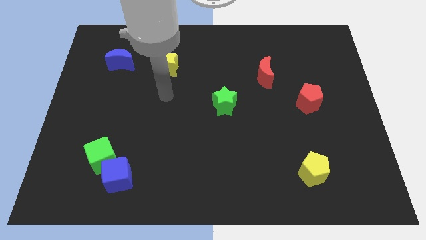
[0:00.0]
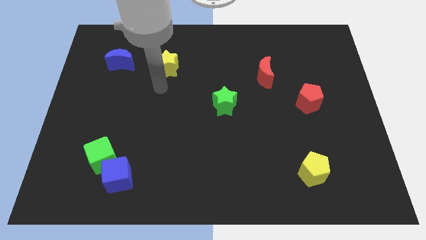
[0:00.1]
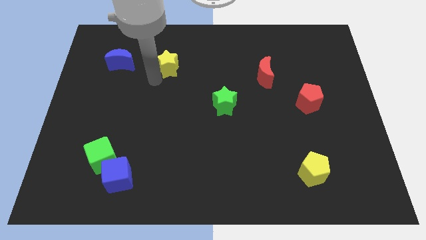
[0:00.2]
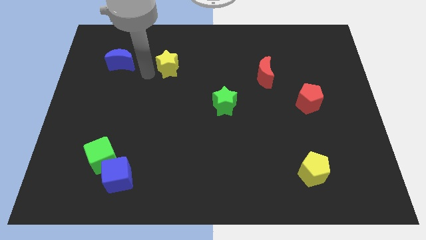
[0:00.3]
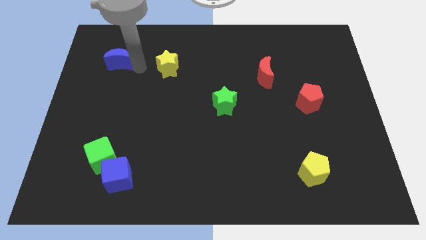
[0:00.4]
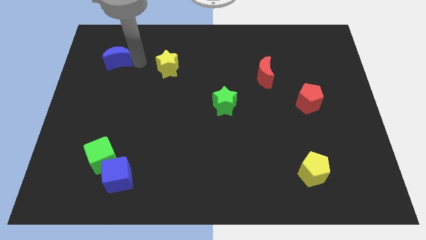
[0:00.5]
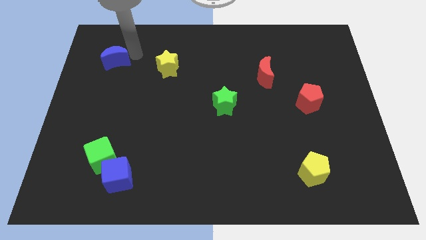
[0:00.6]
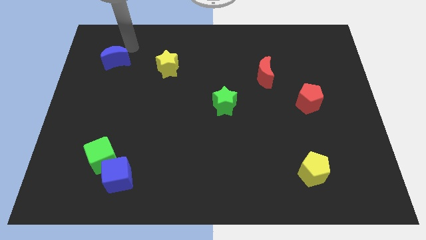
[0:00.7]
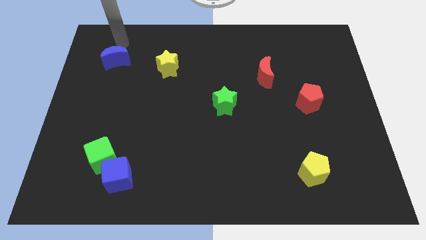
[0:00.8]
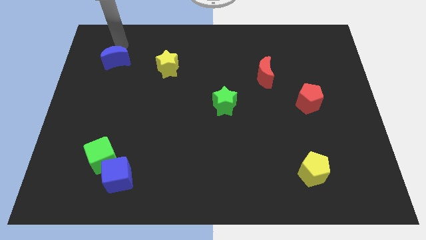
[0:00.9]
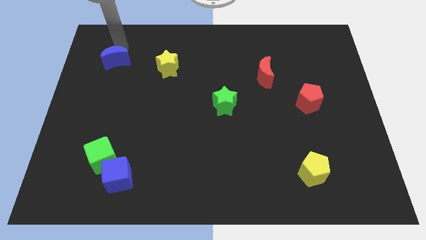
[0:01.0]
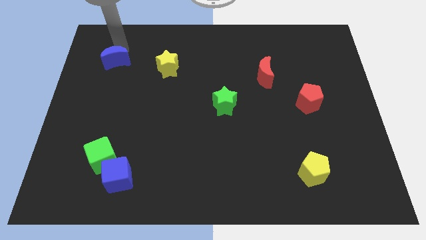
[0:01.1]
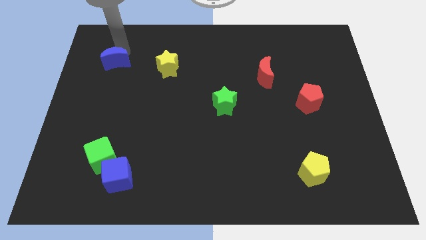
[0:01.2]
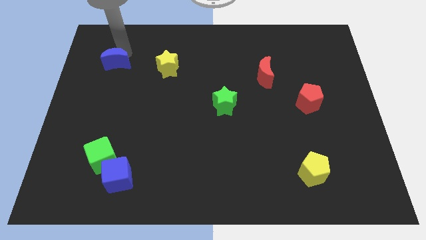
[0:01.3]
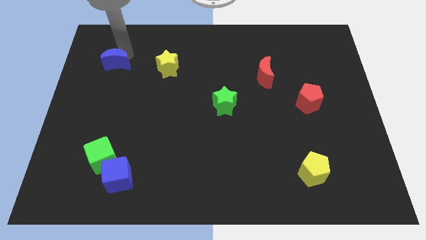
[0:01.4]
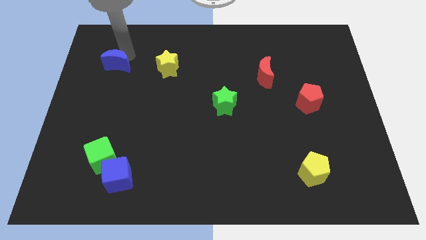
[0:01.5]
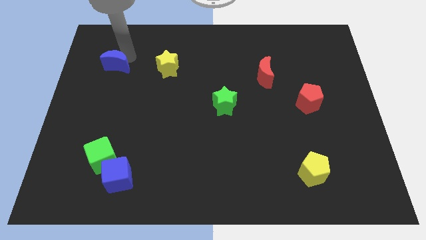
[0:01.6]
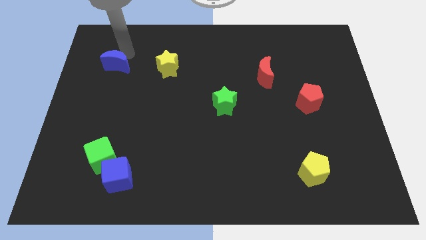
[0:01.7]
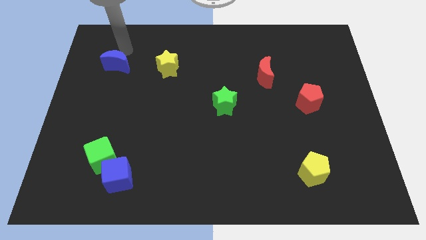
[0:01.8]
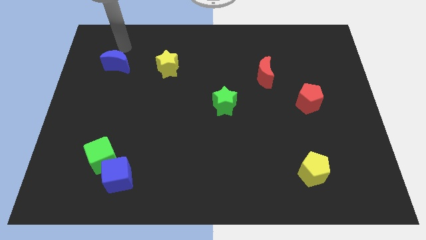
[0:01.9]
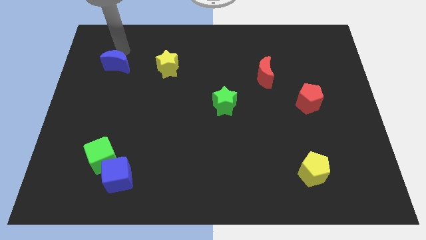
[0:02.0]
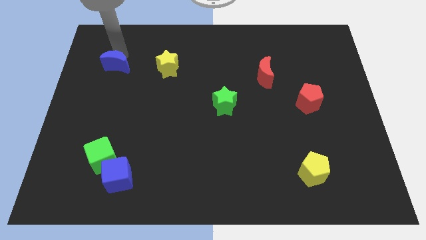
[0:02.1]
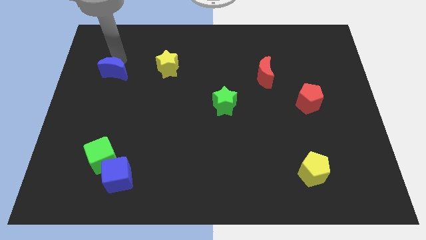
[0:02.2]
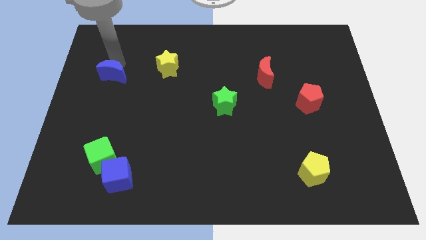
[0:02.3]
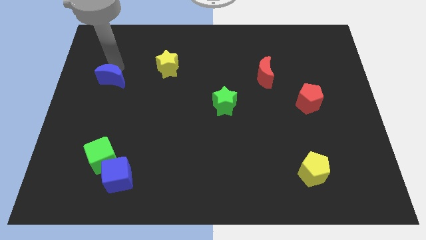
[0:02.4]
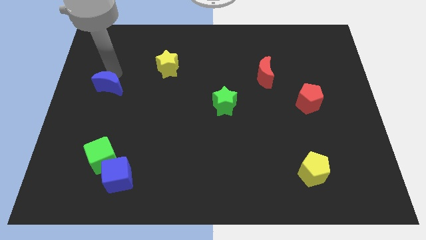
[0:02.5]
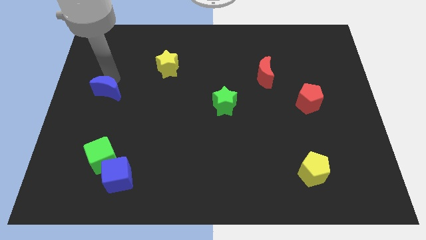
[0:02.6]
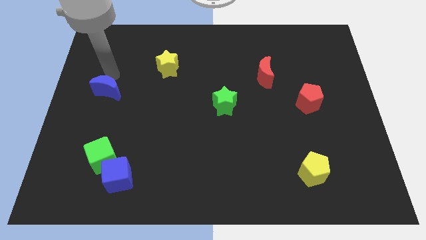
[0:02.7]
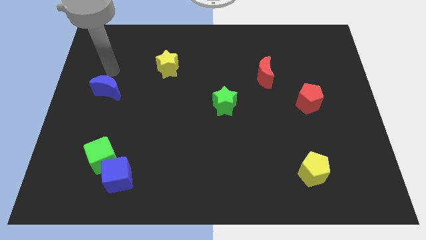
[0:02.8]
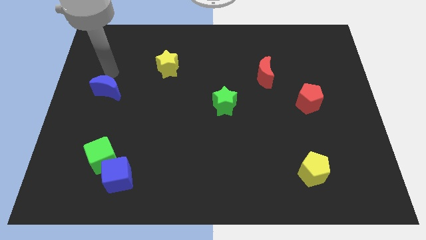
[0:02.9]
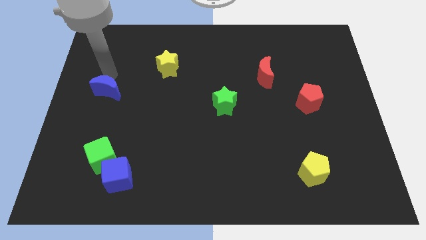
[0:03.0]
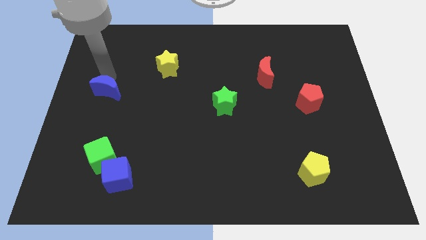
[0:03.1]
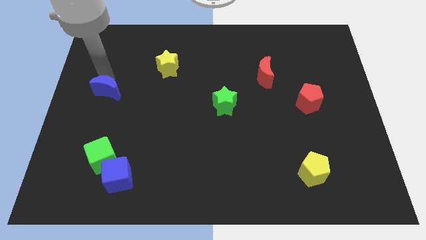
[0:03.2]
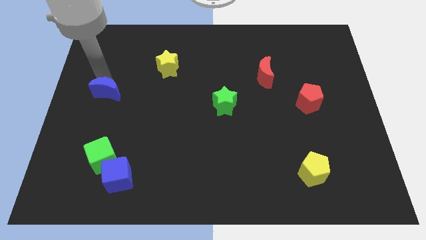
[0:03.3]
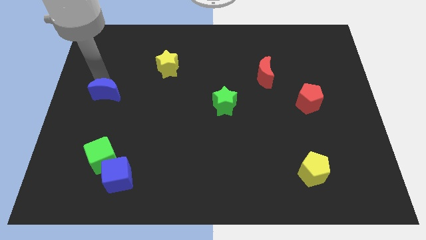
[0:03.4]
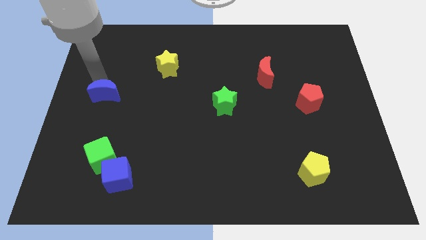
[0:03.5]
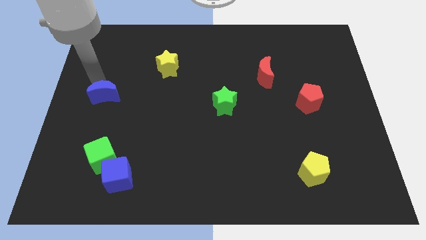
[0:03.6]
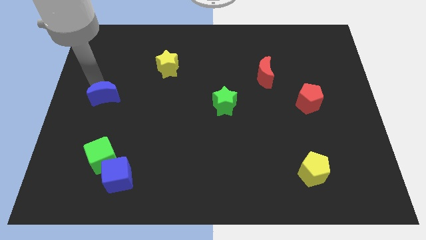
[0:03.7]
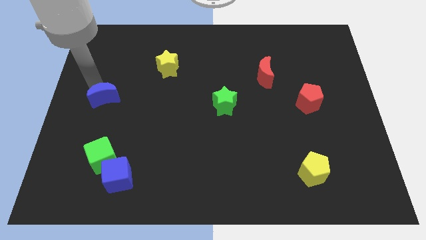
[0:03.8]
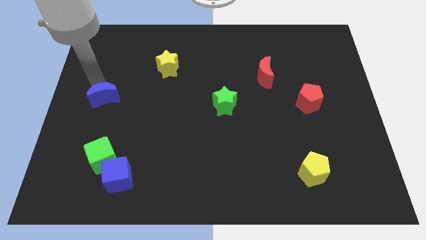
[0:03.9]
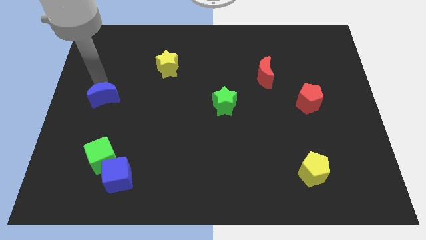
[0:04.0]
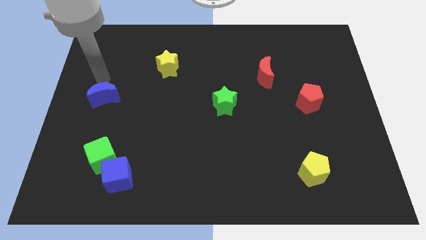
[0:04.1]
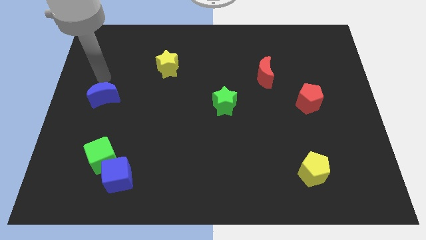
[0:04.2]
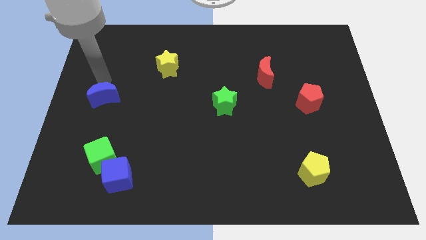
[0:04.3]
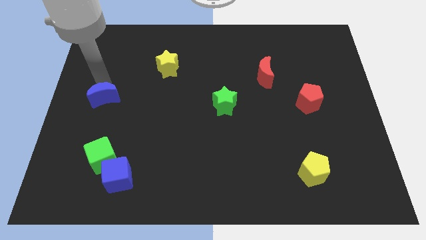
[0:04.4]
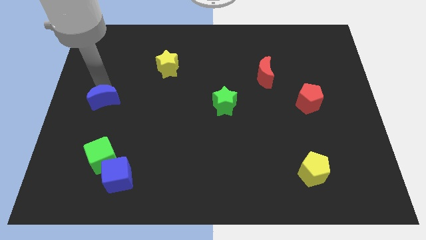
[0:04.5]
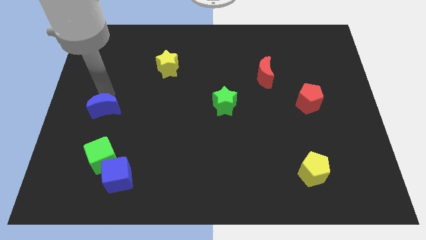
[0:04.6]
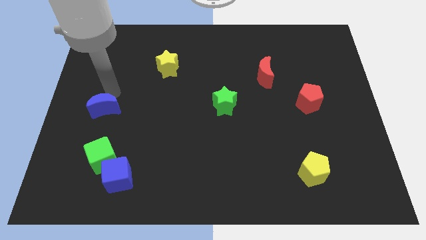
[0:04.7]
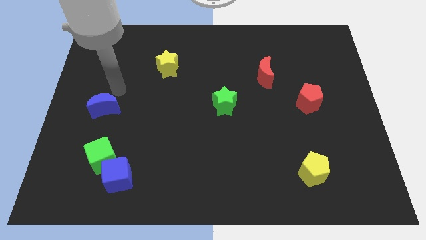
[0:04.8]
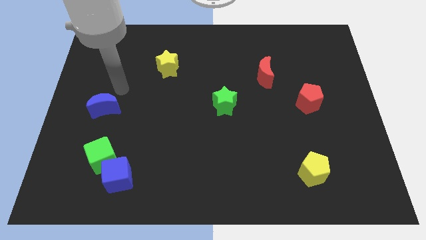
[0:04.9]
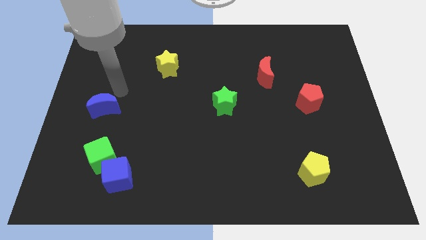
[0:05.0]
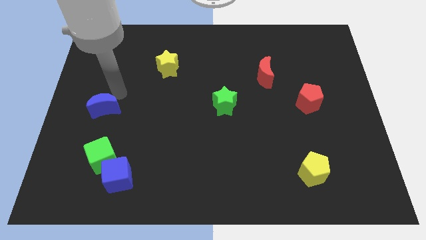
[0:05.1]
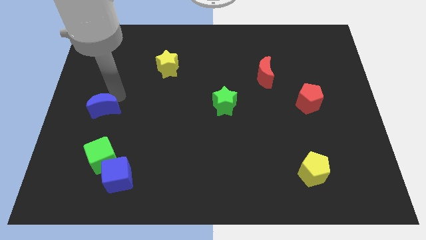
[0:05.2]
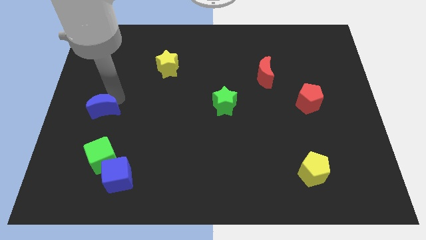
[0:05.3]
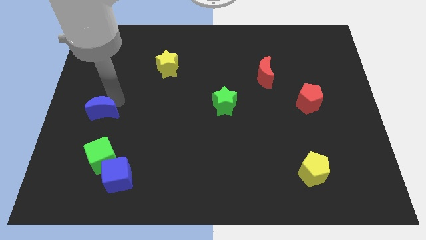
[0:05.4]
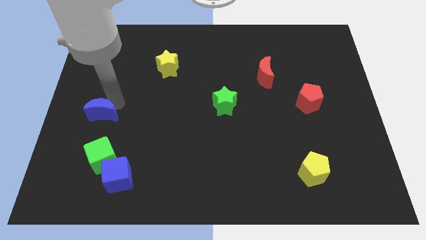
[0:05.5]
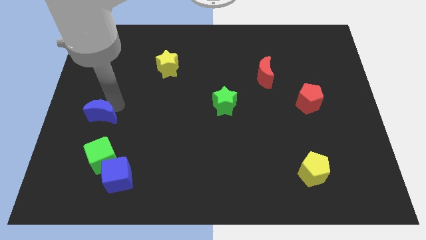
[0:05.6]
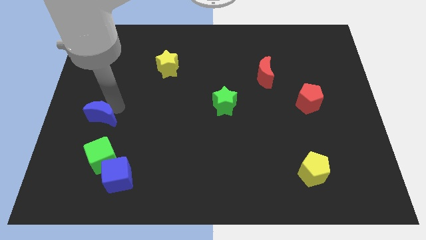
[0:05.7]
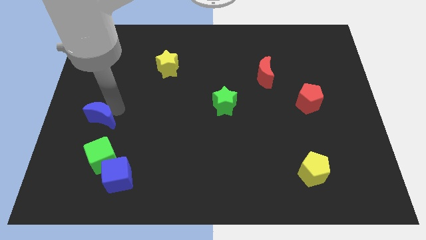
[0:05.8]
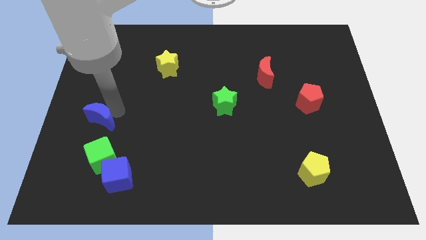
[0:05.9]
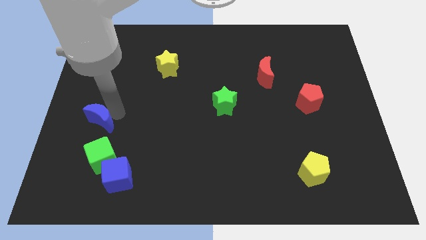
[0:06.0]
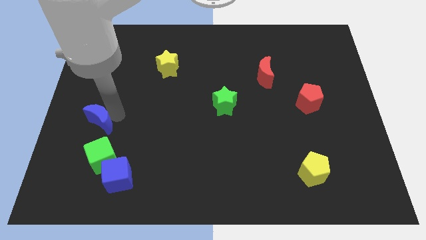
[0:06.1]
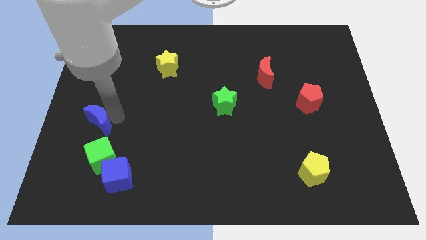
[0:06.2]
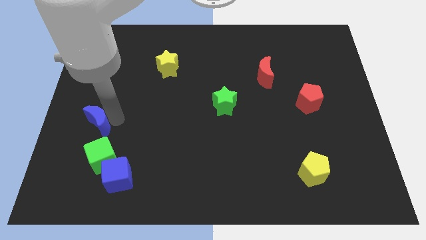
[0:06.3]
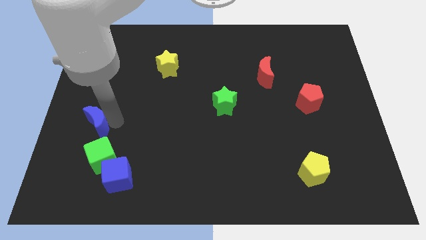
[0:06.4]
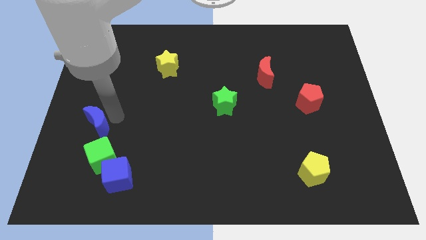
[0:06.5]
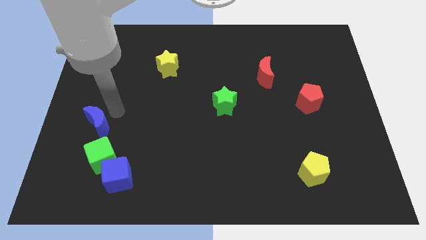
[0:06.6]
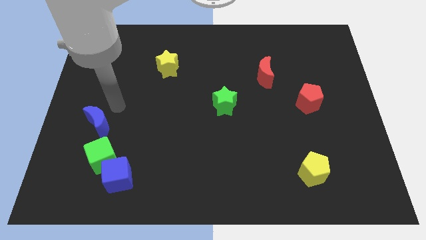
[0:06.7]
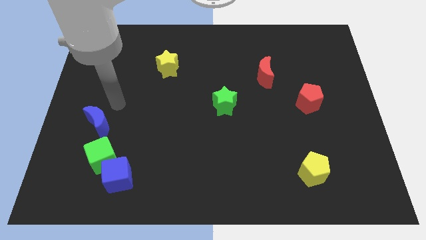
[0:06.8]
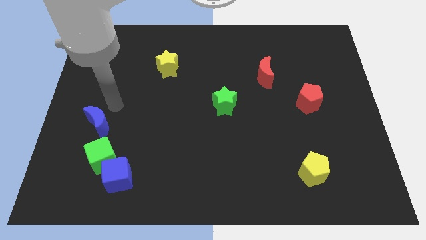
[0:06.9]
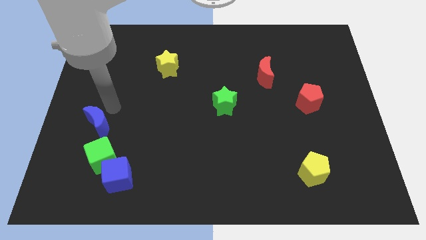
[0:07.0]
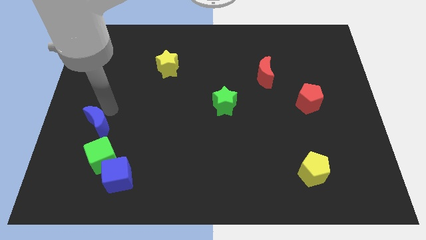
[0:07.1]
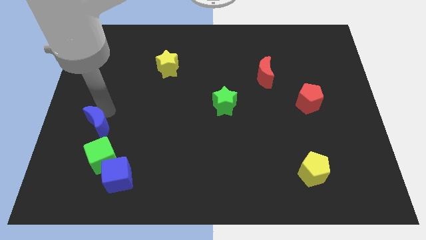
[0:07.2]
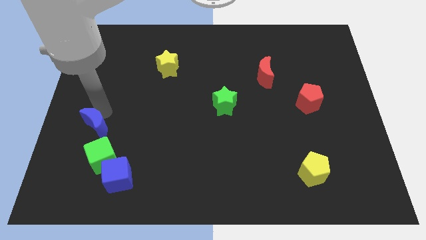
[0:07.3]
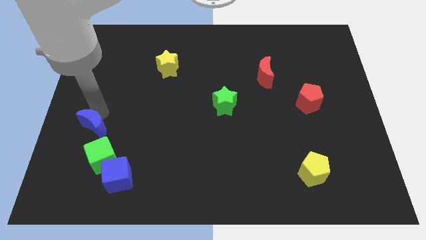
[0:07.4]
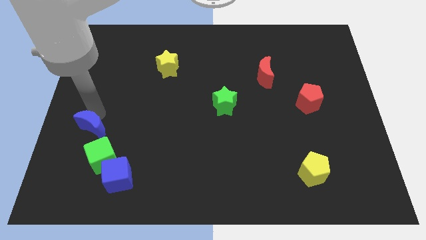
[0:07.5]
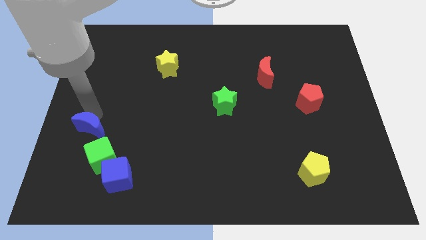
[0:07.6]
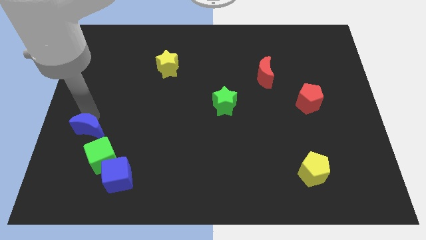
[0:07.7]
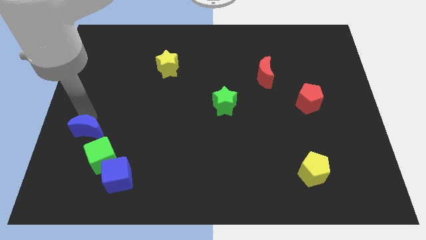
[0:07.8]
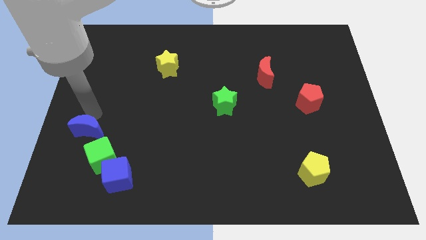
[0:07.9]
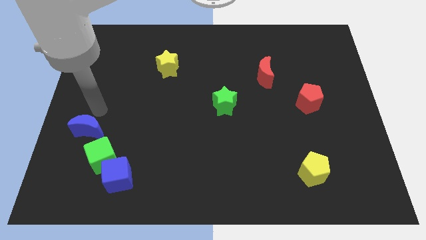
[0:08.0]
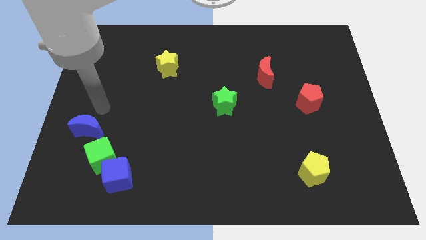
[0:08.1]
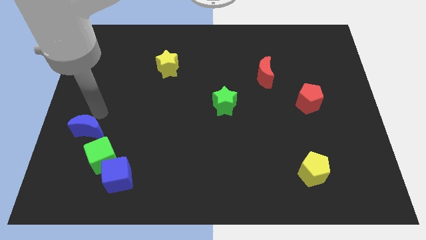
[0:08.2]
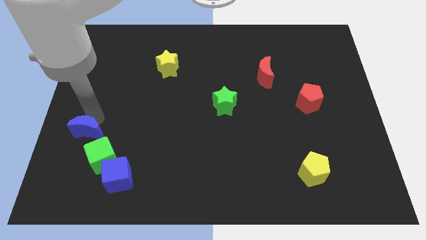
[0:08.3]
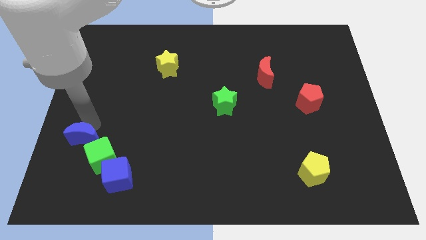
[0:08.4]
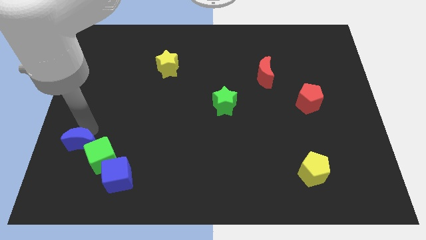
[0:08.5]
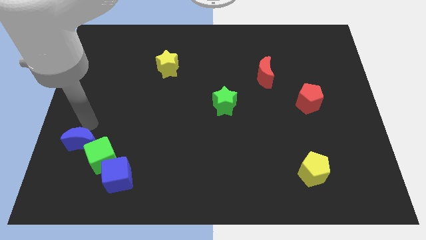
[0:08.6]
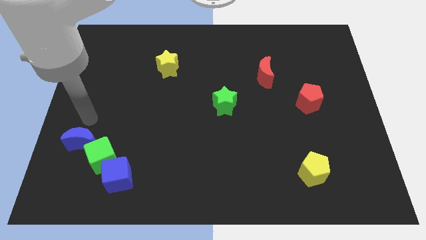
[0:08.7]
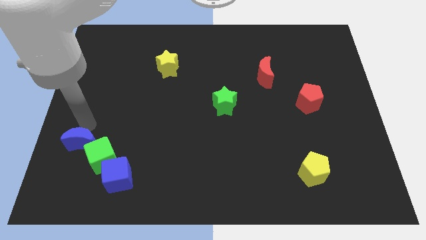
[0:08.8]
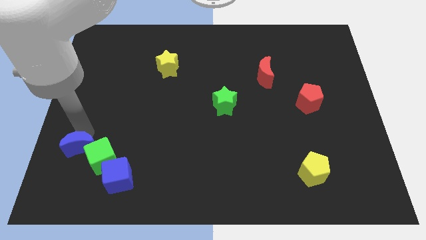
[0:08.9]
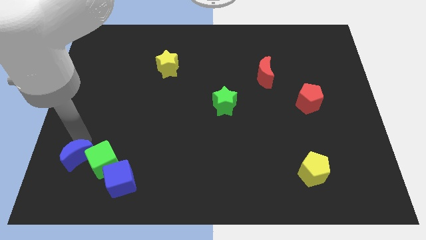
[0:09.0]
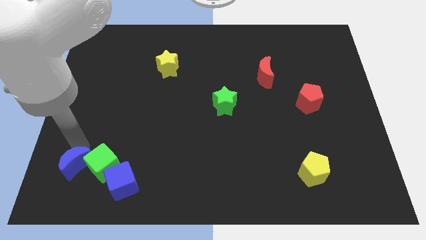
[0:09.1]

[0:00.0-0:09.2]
move the blue moon to the bottom left of the green cube
